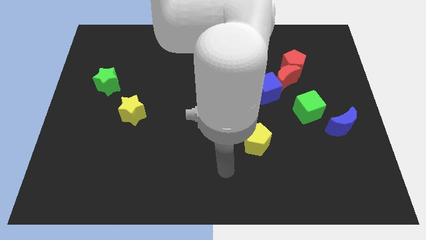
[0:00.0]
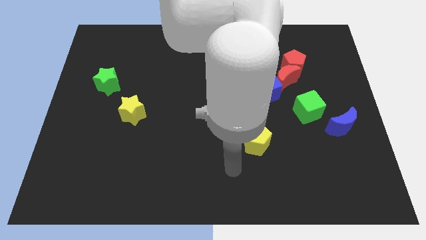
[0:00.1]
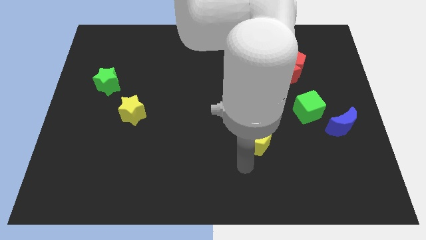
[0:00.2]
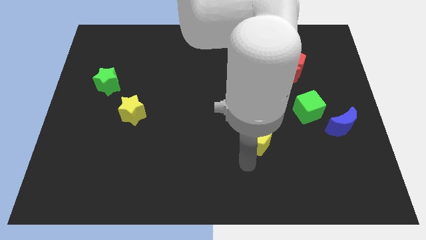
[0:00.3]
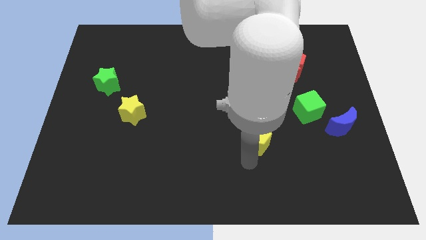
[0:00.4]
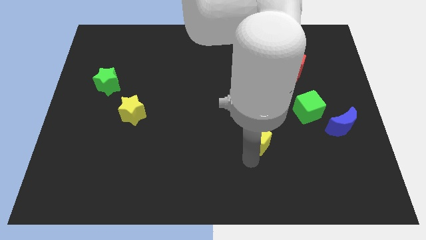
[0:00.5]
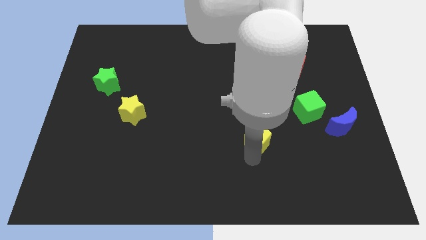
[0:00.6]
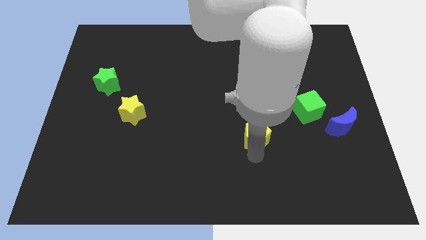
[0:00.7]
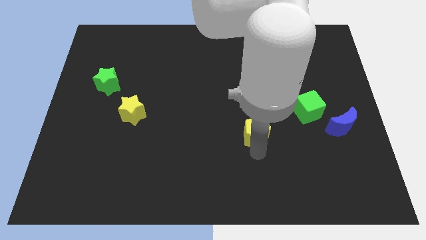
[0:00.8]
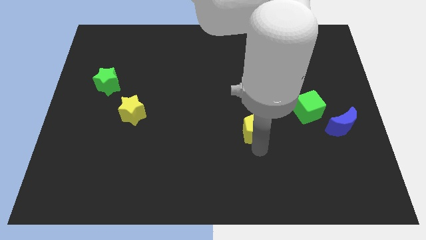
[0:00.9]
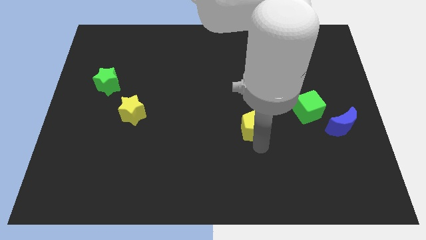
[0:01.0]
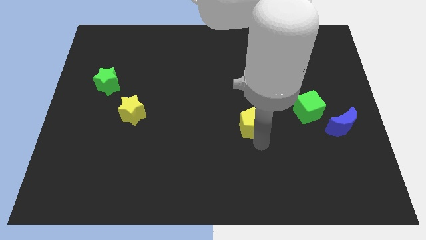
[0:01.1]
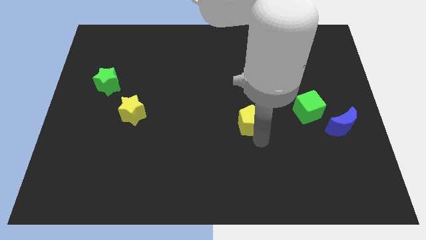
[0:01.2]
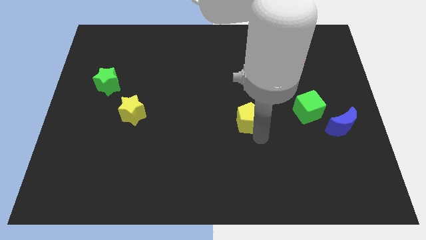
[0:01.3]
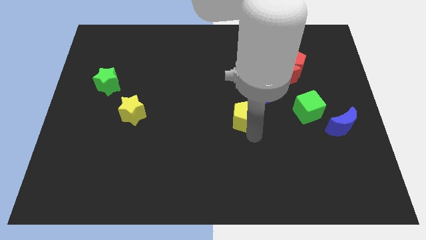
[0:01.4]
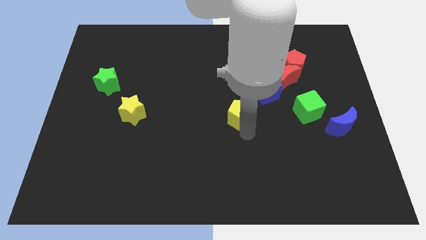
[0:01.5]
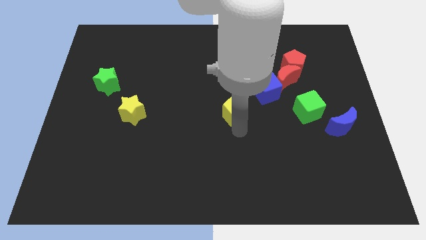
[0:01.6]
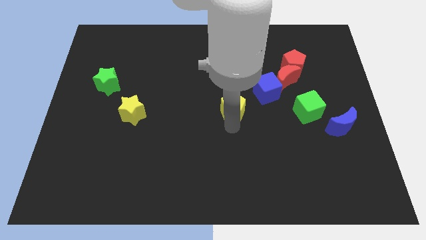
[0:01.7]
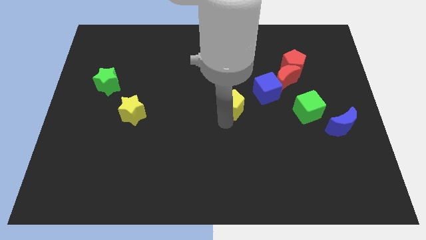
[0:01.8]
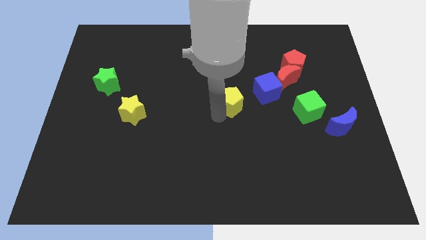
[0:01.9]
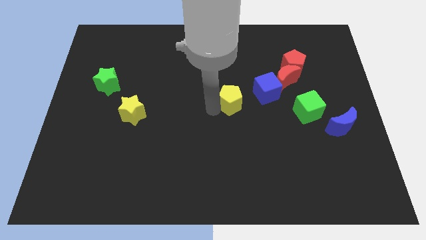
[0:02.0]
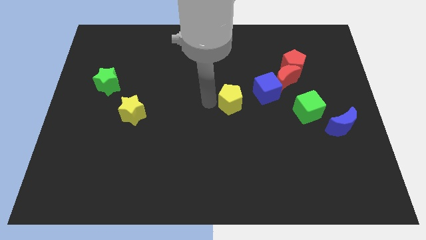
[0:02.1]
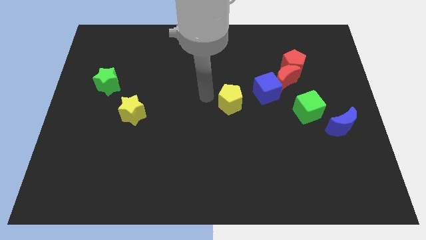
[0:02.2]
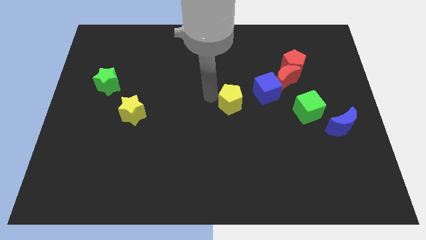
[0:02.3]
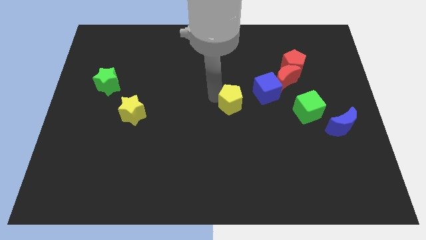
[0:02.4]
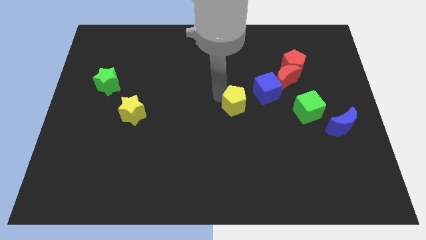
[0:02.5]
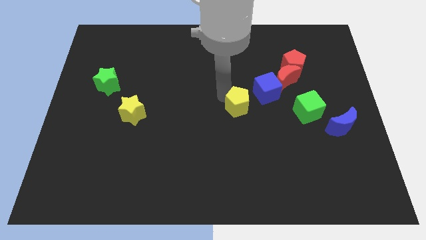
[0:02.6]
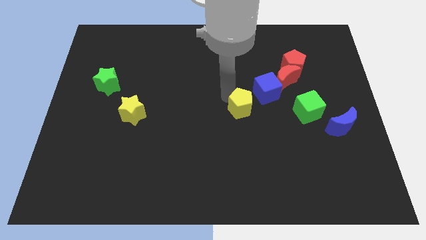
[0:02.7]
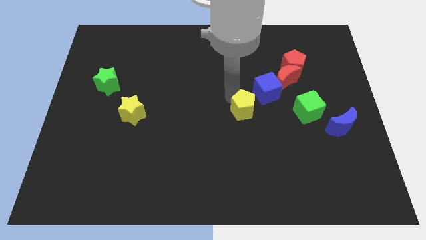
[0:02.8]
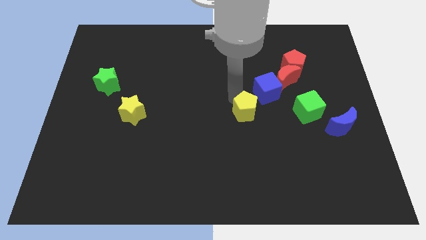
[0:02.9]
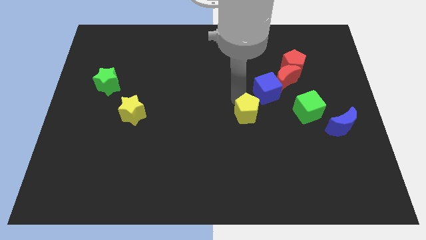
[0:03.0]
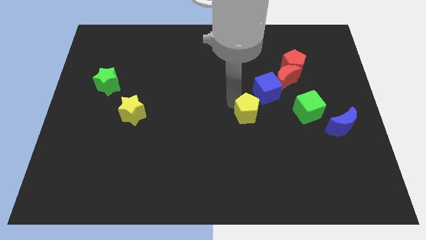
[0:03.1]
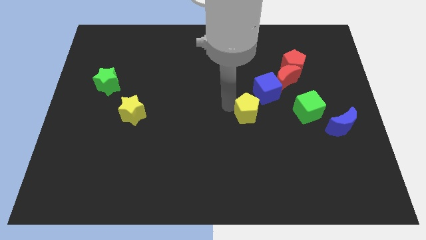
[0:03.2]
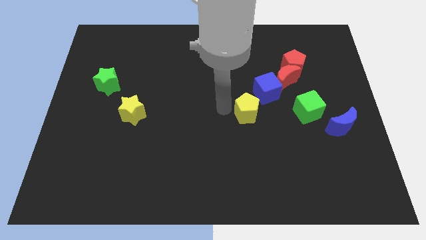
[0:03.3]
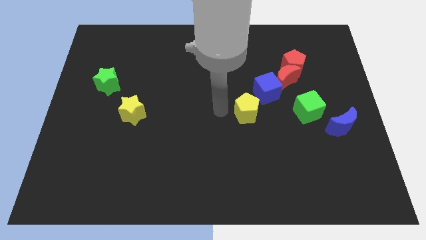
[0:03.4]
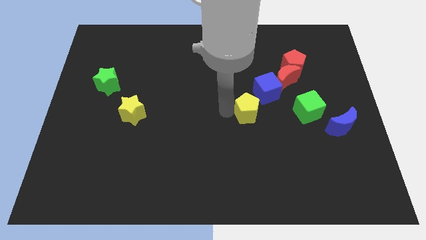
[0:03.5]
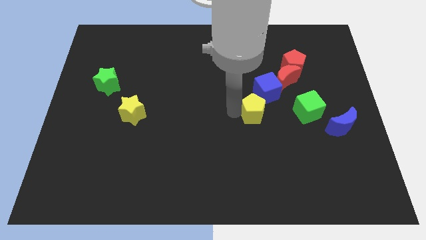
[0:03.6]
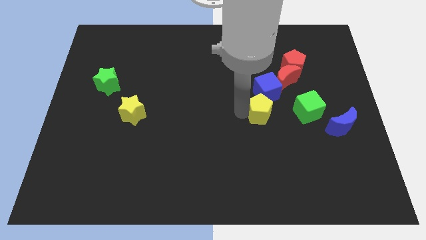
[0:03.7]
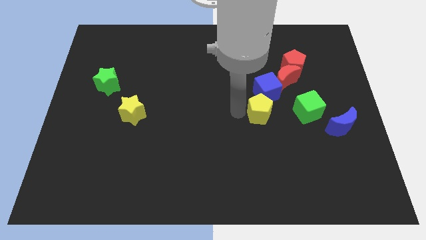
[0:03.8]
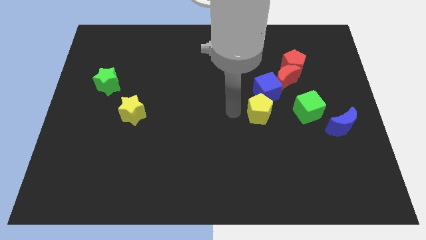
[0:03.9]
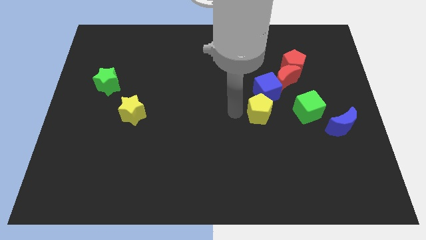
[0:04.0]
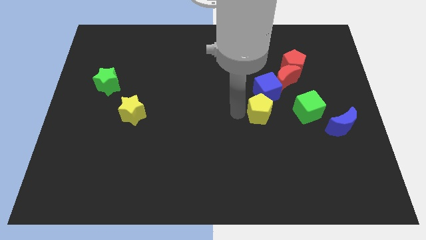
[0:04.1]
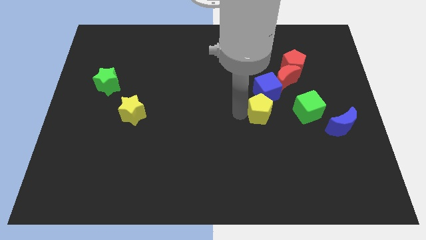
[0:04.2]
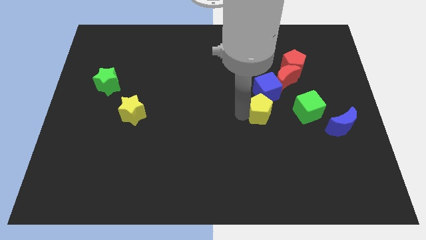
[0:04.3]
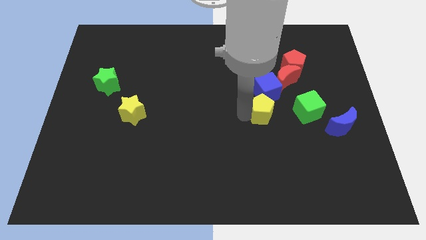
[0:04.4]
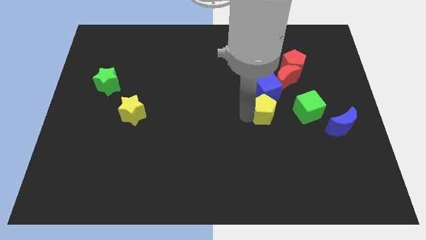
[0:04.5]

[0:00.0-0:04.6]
push the yellow pentagon a little up and to the right

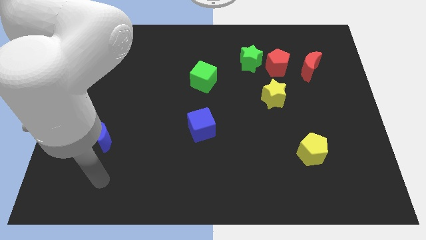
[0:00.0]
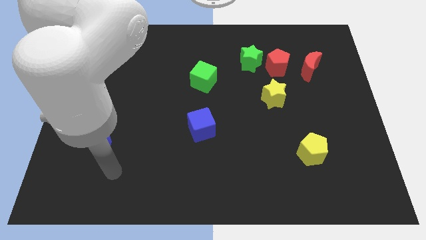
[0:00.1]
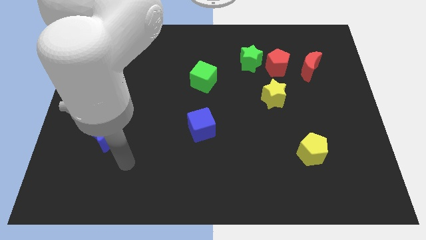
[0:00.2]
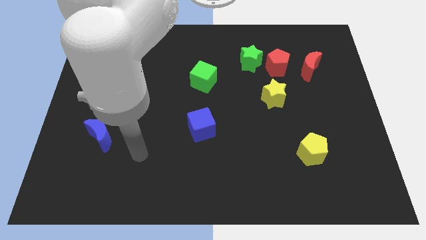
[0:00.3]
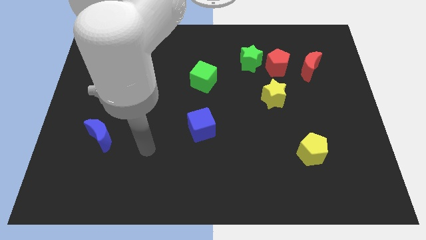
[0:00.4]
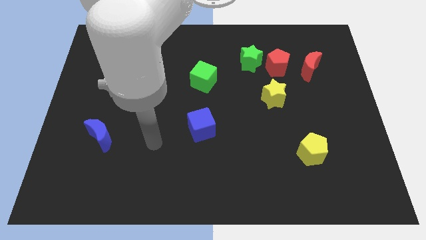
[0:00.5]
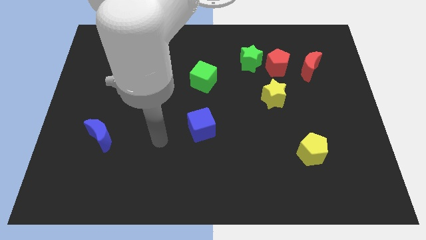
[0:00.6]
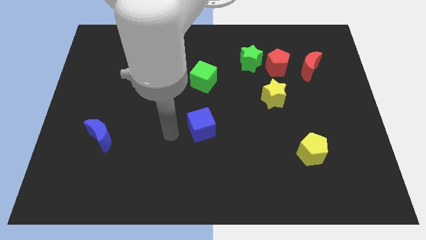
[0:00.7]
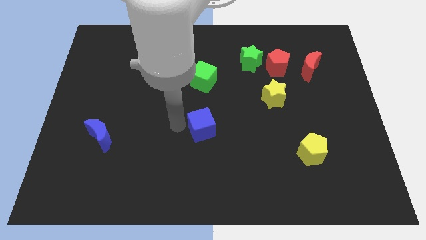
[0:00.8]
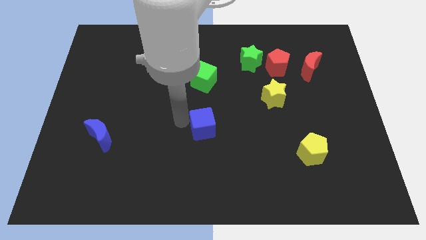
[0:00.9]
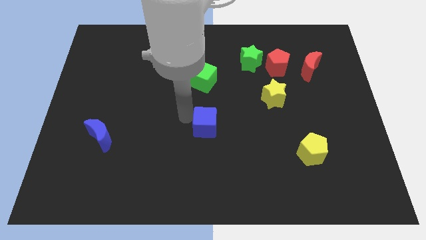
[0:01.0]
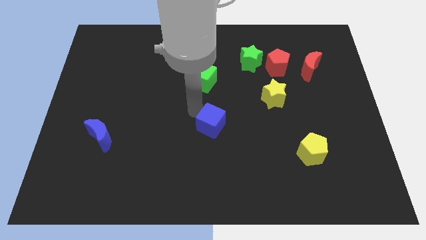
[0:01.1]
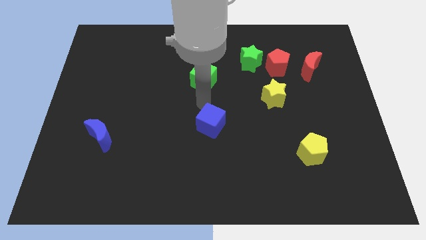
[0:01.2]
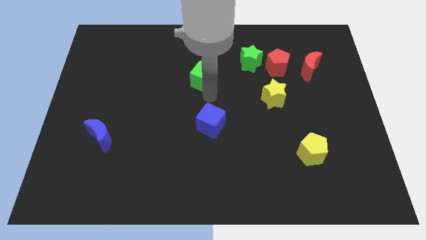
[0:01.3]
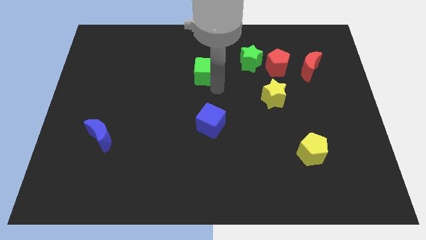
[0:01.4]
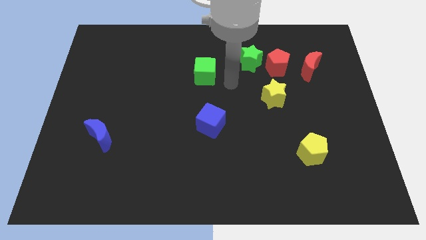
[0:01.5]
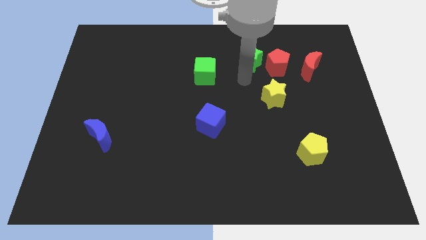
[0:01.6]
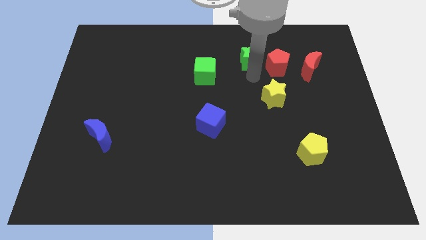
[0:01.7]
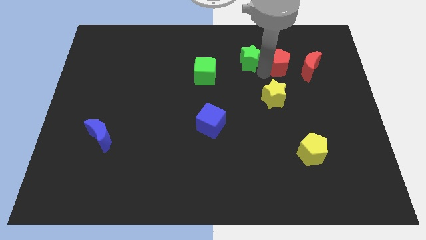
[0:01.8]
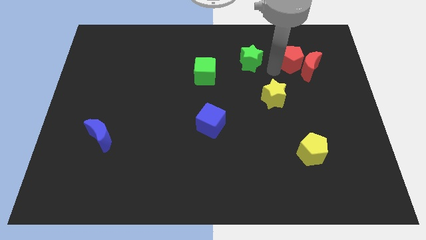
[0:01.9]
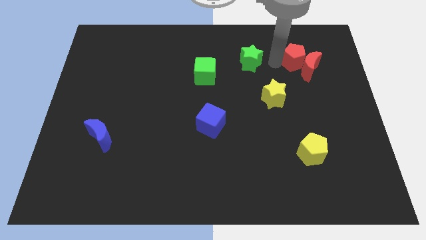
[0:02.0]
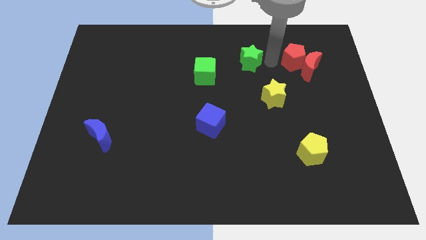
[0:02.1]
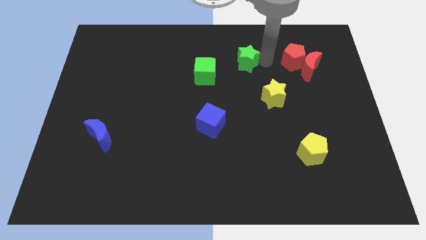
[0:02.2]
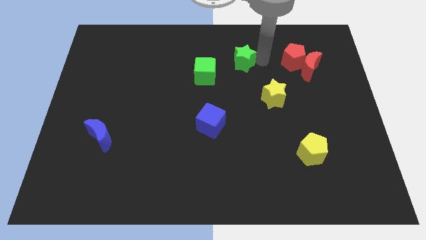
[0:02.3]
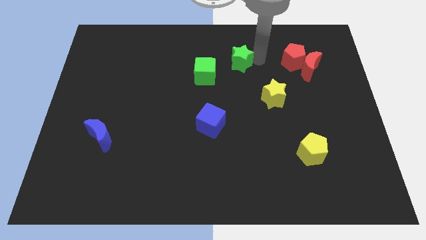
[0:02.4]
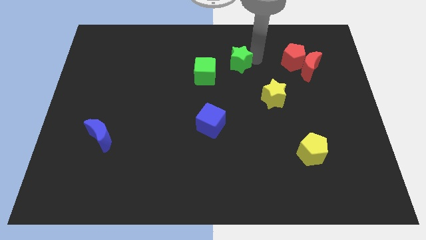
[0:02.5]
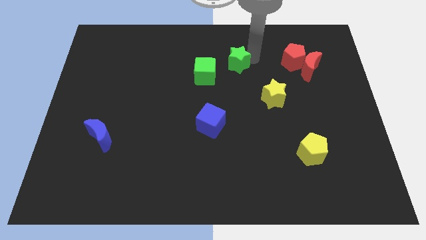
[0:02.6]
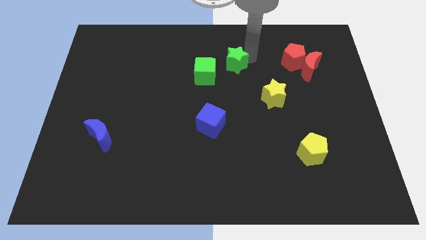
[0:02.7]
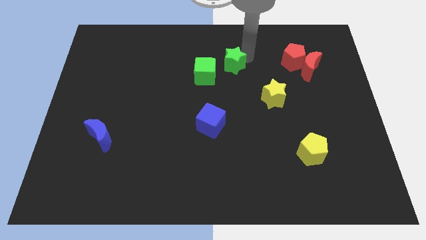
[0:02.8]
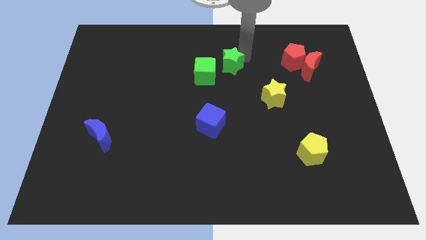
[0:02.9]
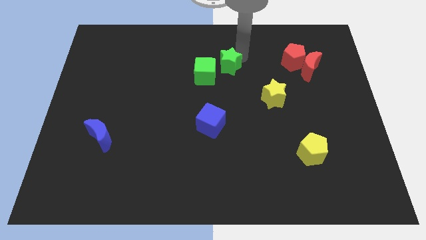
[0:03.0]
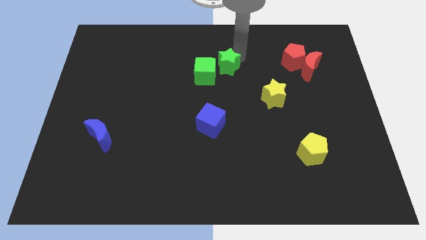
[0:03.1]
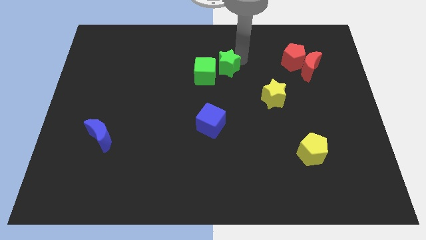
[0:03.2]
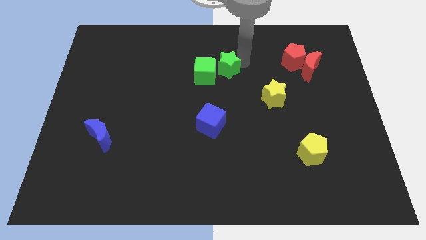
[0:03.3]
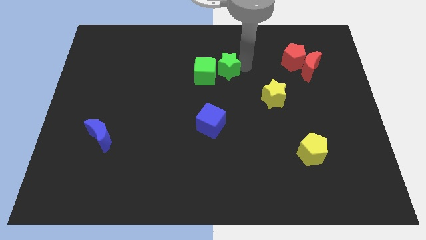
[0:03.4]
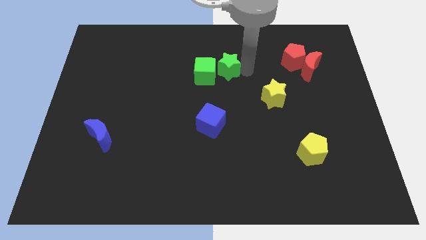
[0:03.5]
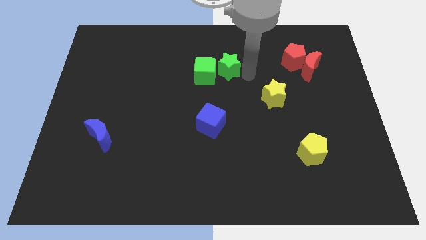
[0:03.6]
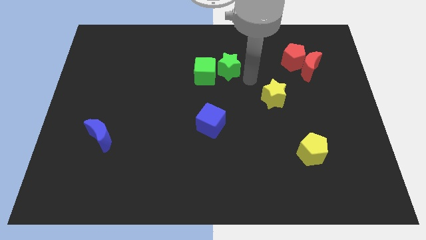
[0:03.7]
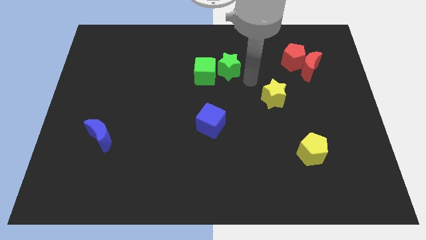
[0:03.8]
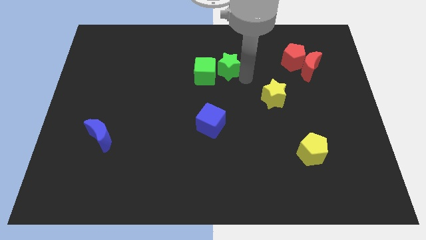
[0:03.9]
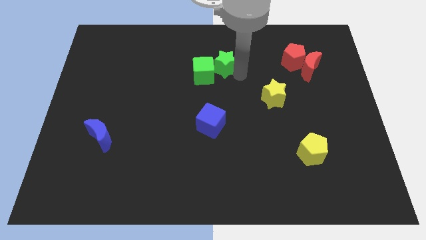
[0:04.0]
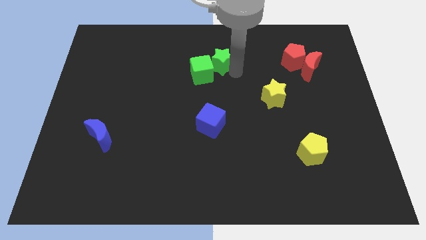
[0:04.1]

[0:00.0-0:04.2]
slide the green star to the left a bit
